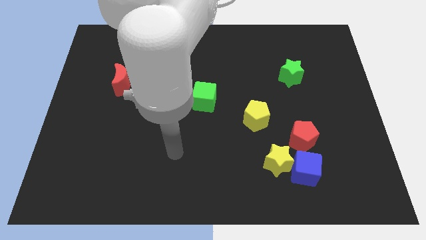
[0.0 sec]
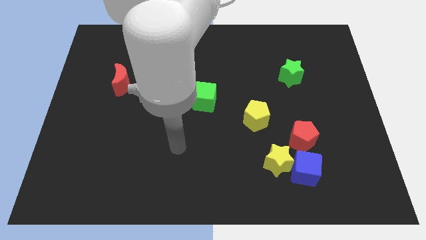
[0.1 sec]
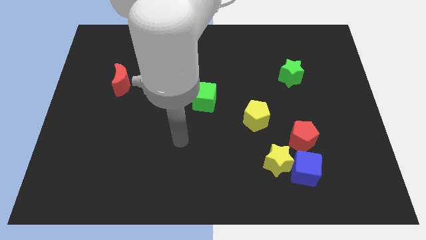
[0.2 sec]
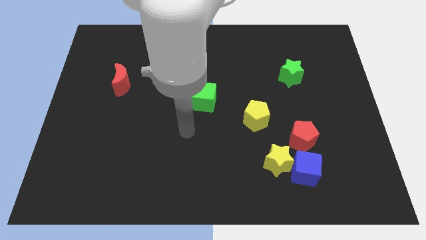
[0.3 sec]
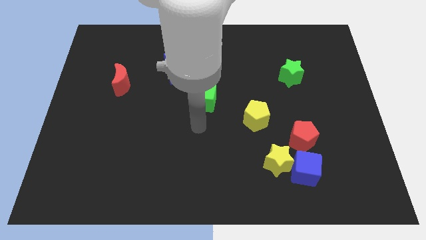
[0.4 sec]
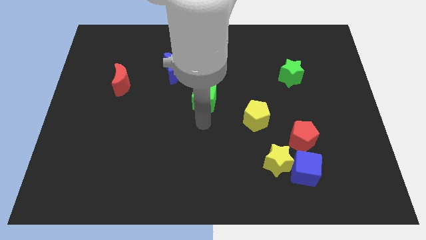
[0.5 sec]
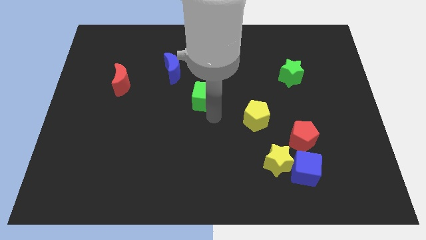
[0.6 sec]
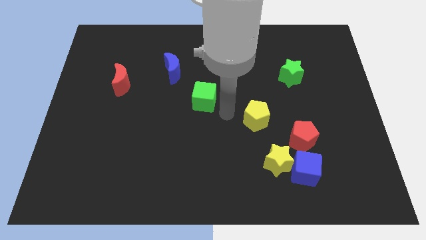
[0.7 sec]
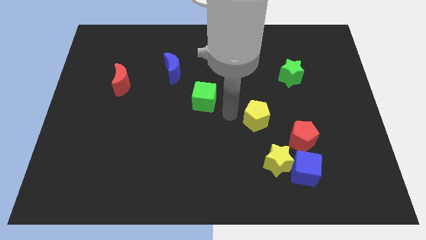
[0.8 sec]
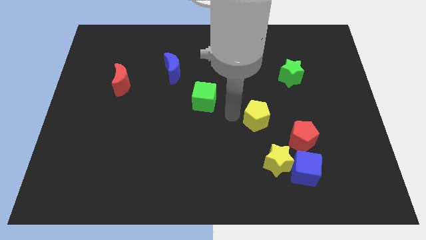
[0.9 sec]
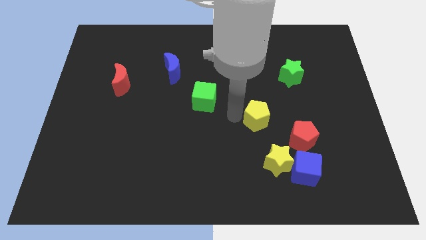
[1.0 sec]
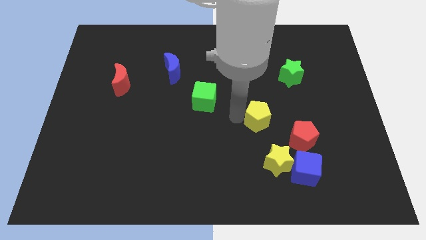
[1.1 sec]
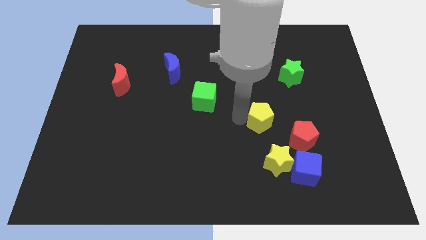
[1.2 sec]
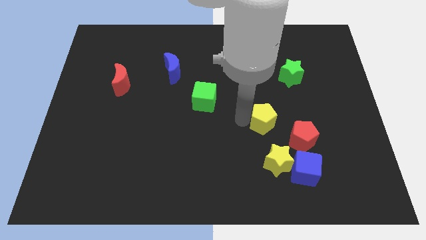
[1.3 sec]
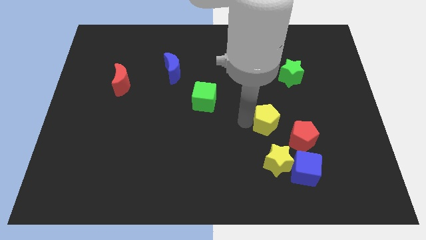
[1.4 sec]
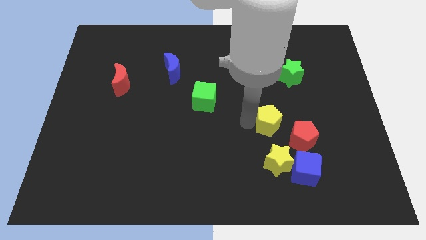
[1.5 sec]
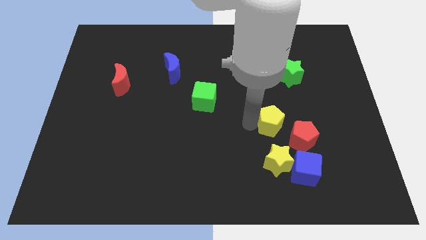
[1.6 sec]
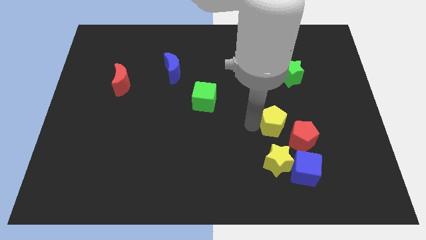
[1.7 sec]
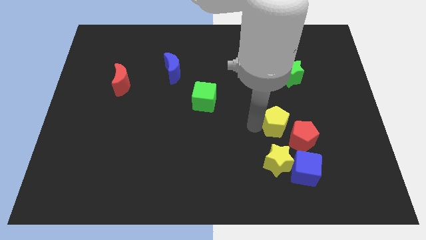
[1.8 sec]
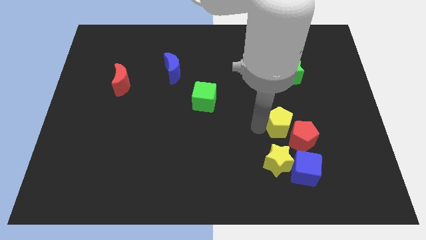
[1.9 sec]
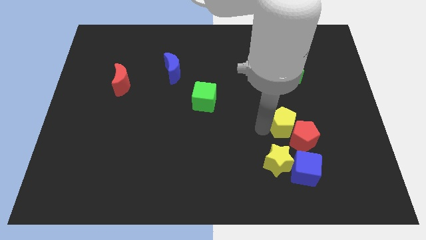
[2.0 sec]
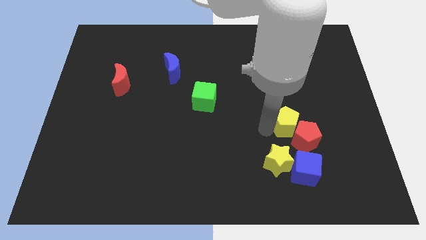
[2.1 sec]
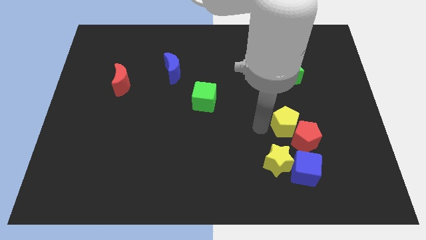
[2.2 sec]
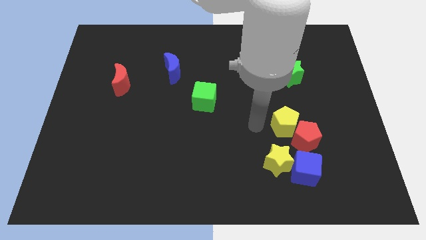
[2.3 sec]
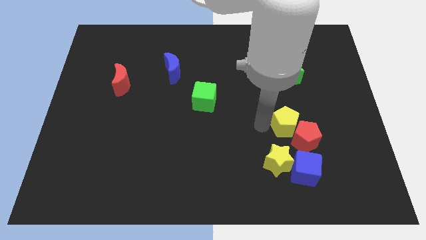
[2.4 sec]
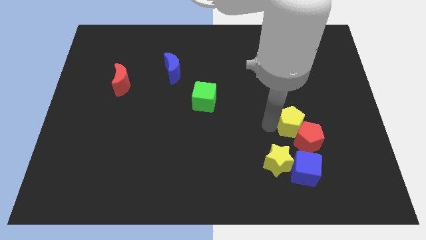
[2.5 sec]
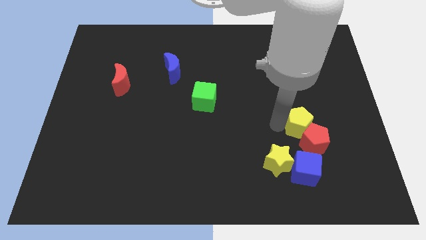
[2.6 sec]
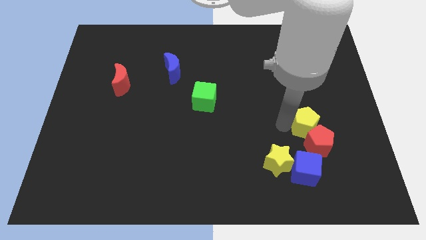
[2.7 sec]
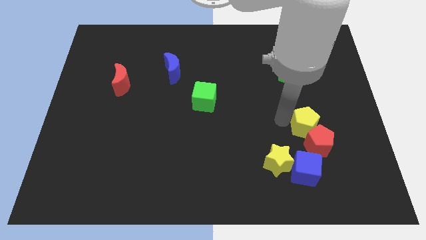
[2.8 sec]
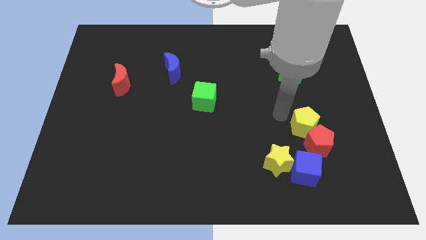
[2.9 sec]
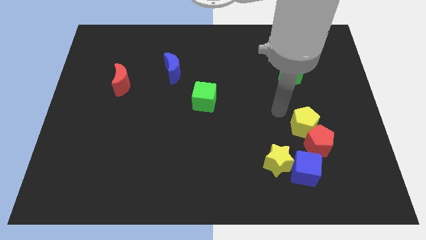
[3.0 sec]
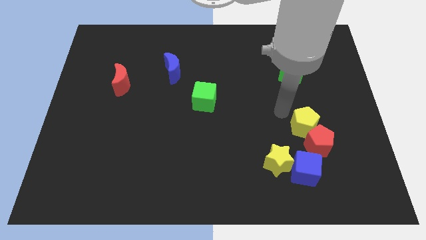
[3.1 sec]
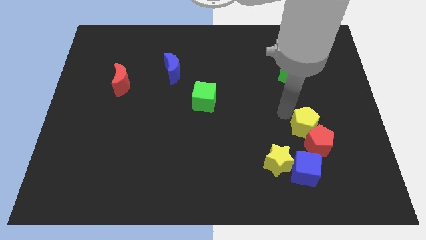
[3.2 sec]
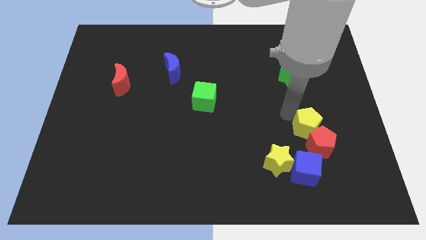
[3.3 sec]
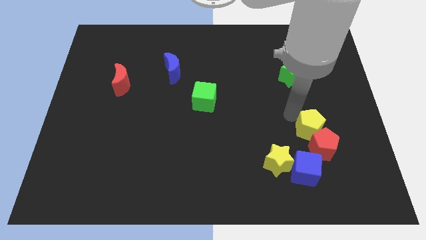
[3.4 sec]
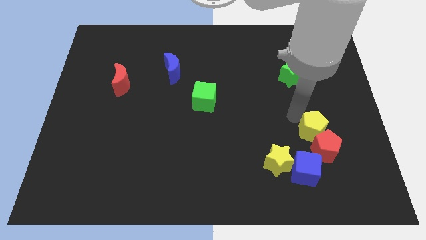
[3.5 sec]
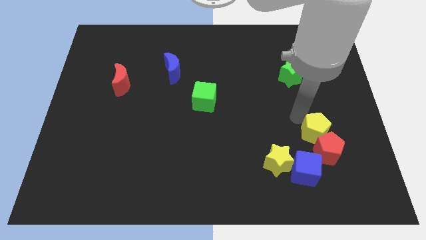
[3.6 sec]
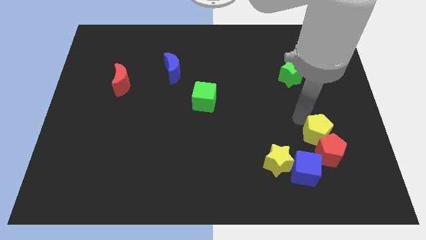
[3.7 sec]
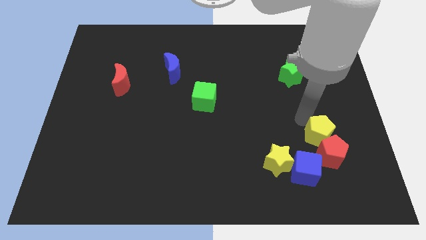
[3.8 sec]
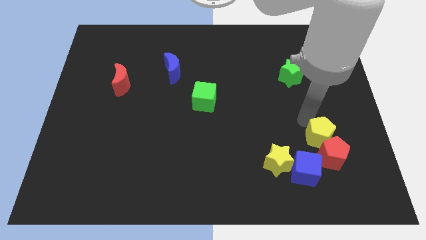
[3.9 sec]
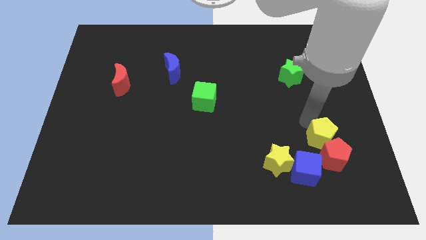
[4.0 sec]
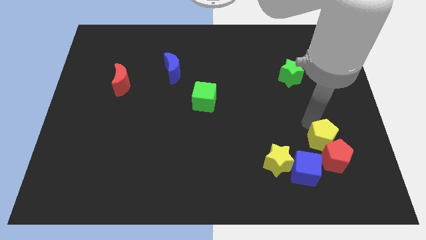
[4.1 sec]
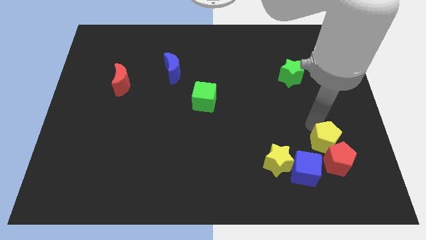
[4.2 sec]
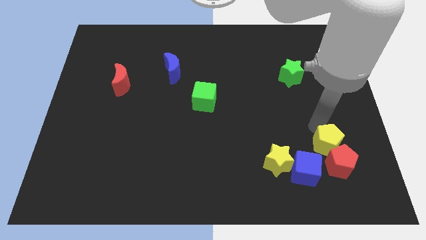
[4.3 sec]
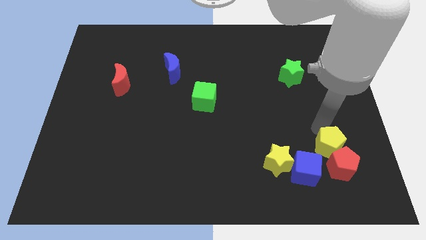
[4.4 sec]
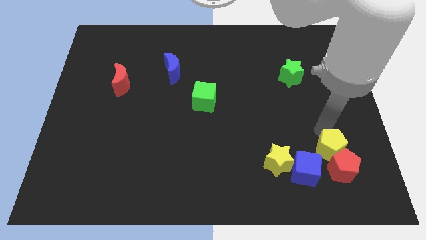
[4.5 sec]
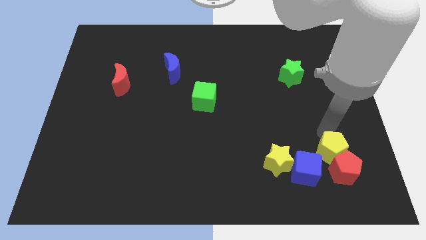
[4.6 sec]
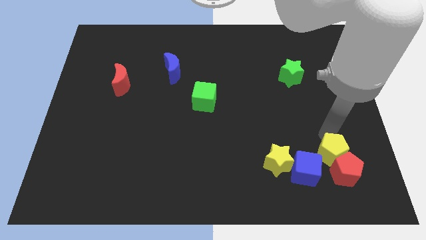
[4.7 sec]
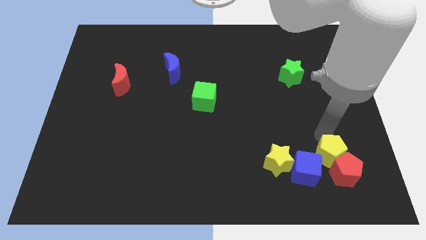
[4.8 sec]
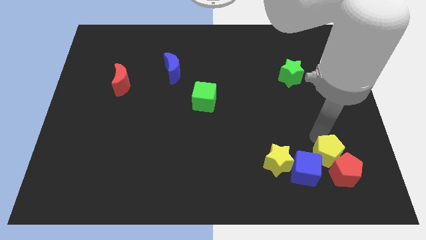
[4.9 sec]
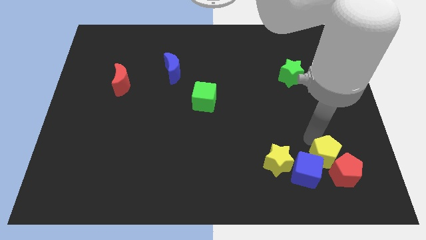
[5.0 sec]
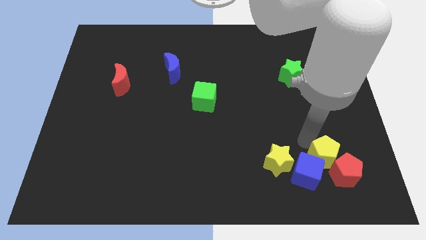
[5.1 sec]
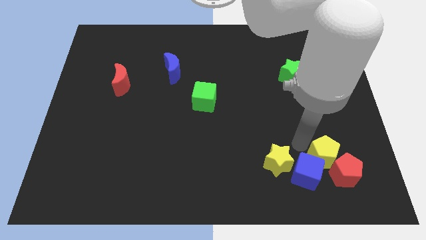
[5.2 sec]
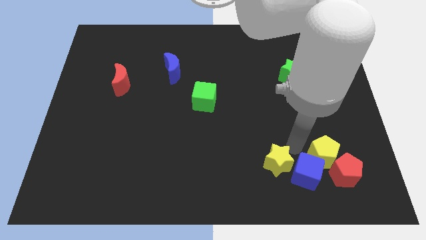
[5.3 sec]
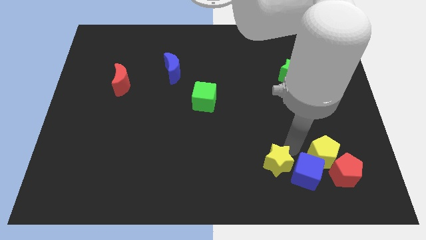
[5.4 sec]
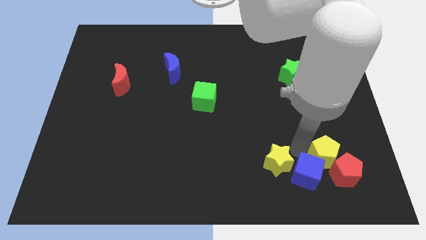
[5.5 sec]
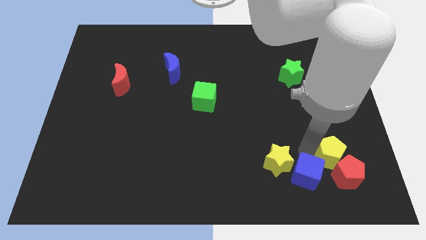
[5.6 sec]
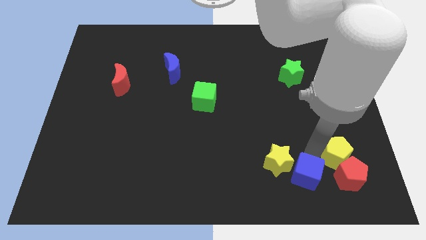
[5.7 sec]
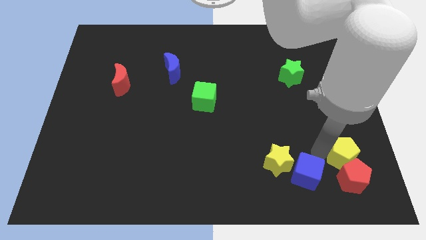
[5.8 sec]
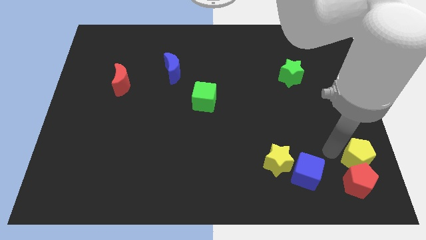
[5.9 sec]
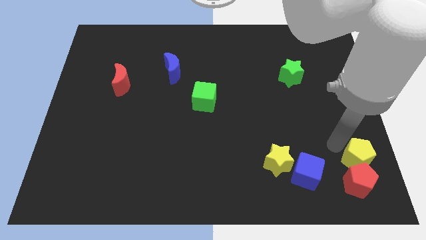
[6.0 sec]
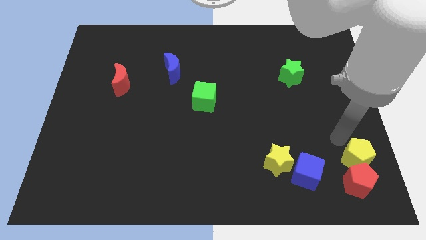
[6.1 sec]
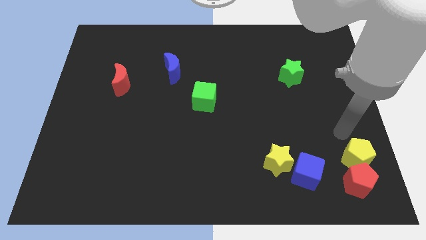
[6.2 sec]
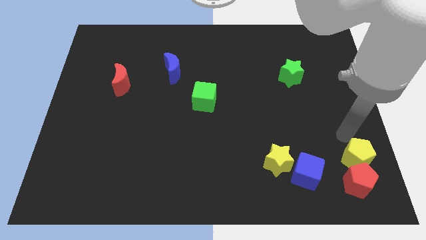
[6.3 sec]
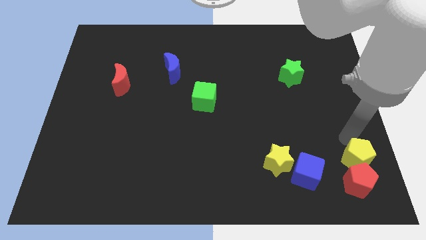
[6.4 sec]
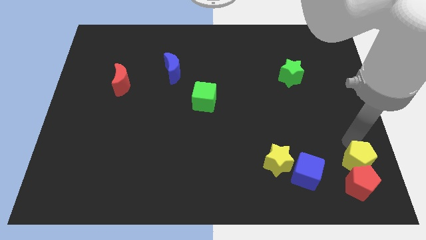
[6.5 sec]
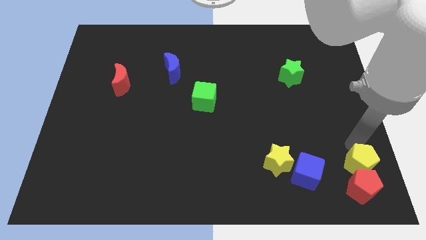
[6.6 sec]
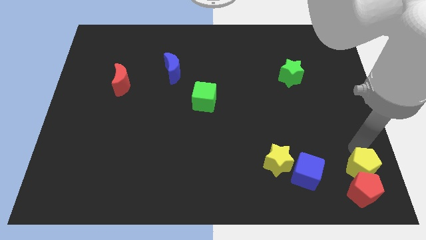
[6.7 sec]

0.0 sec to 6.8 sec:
push the yellow pentagon to the lower right corner
